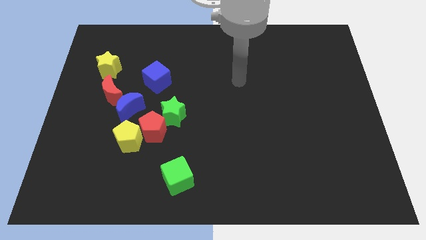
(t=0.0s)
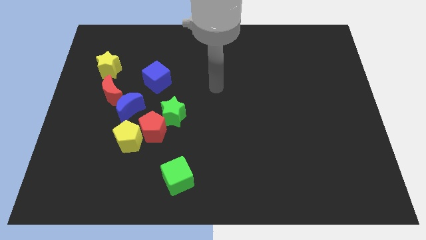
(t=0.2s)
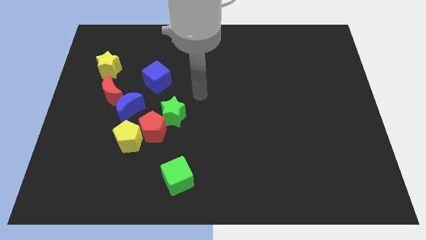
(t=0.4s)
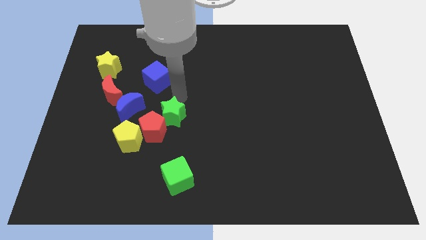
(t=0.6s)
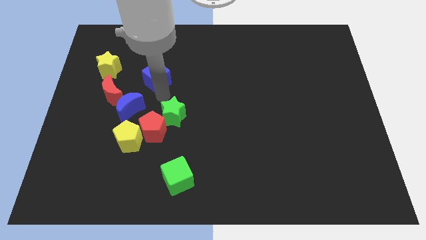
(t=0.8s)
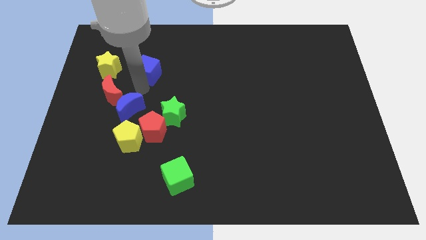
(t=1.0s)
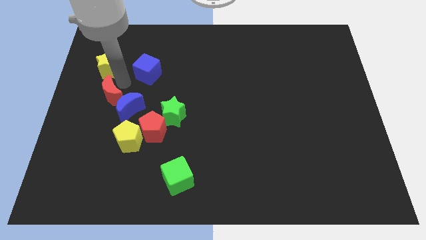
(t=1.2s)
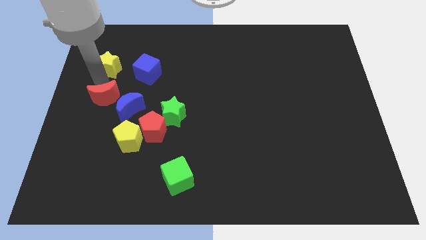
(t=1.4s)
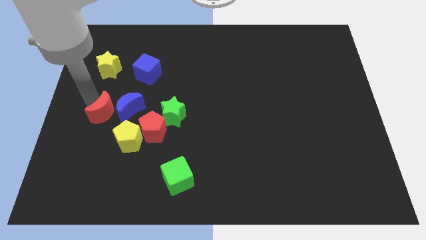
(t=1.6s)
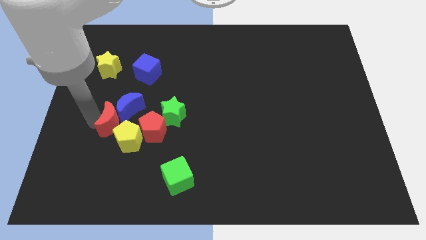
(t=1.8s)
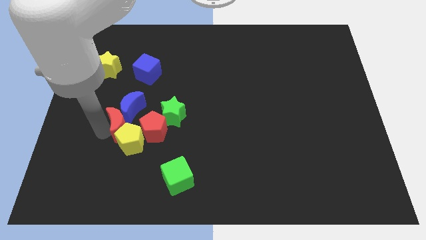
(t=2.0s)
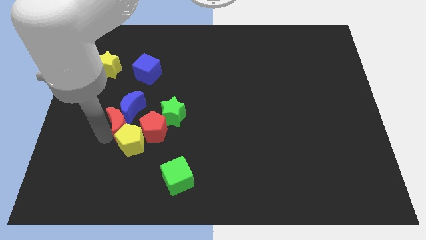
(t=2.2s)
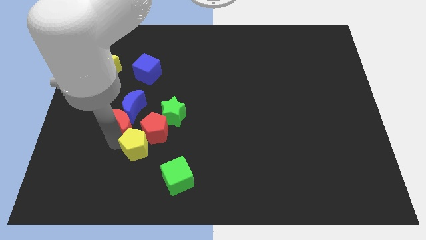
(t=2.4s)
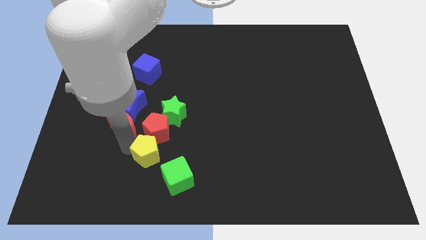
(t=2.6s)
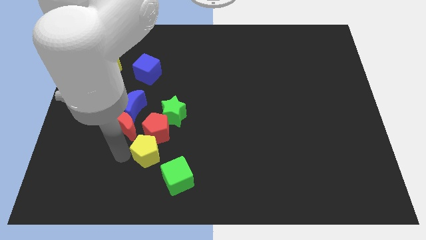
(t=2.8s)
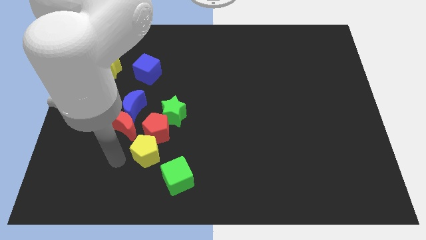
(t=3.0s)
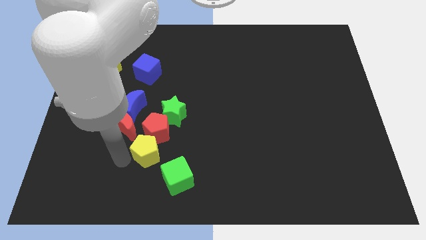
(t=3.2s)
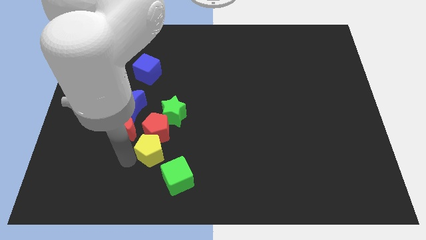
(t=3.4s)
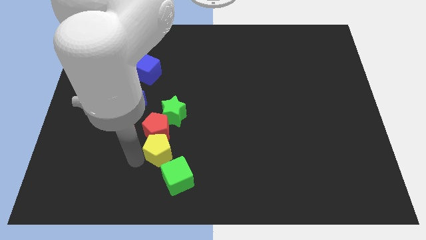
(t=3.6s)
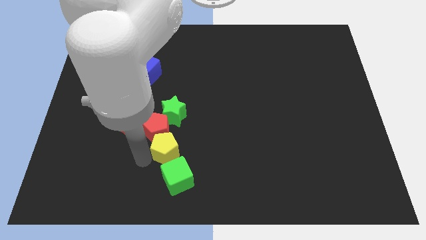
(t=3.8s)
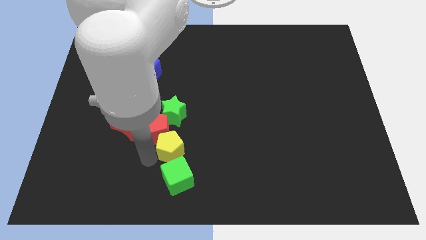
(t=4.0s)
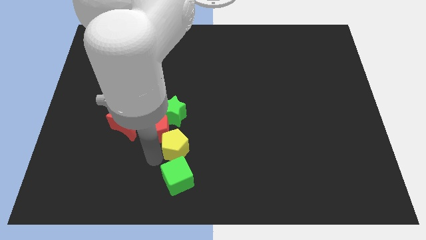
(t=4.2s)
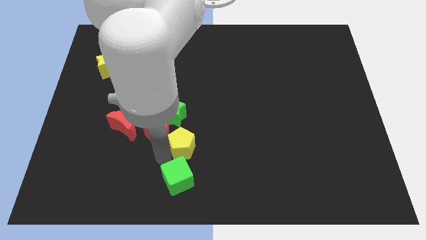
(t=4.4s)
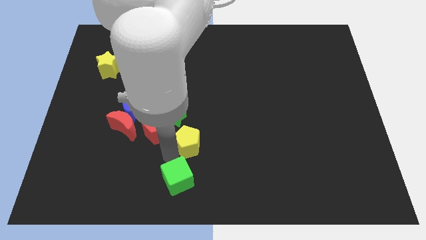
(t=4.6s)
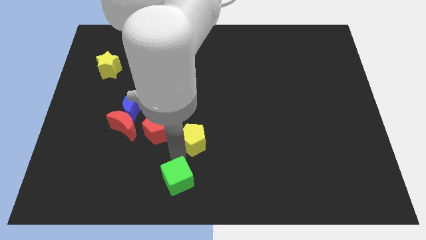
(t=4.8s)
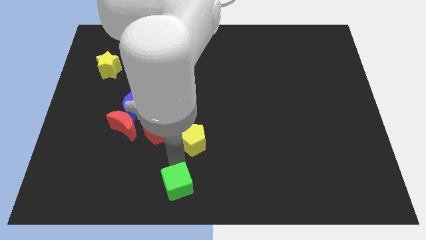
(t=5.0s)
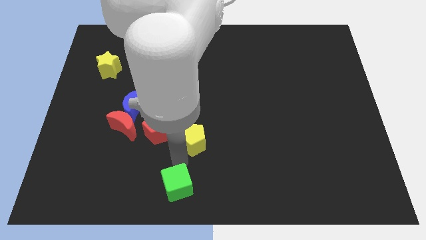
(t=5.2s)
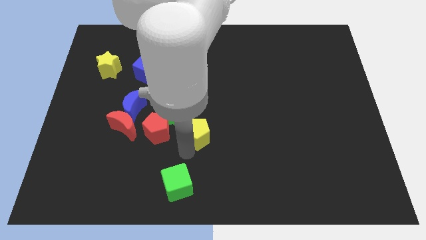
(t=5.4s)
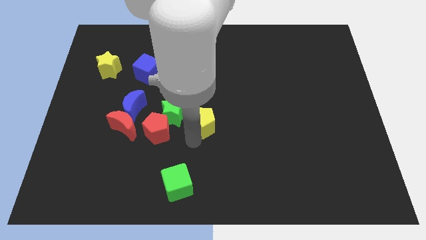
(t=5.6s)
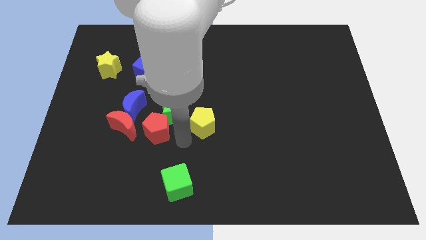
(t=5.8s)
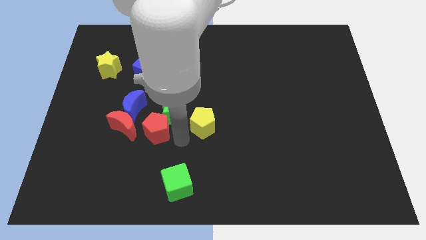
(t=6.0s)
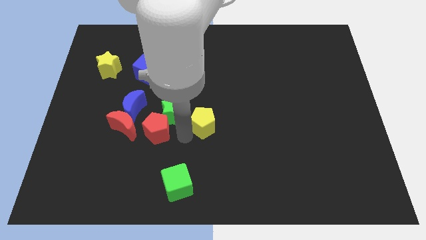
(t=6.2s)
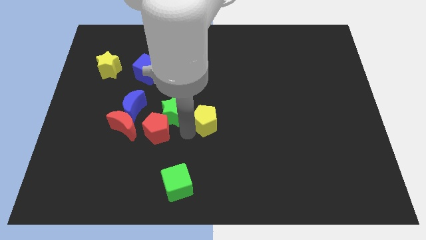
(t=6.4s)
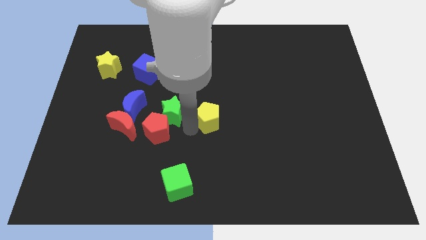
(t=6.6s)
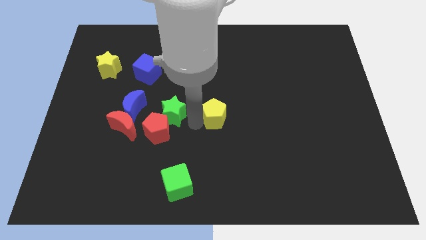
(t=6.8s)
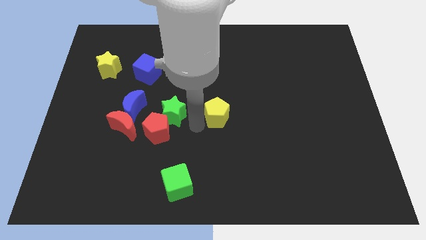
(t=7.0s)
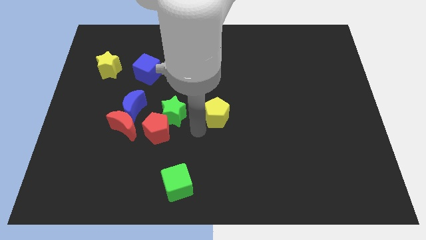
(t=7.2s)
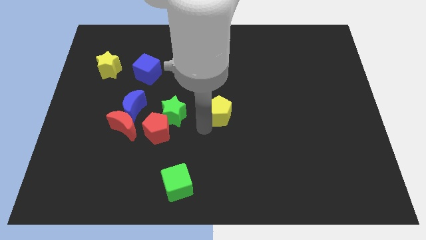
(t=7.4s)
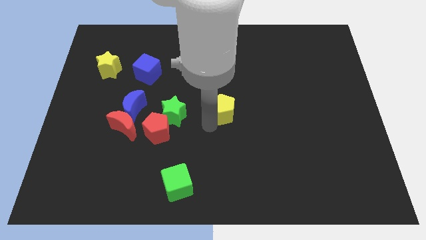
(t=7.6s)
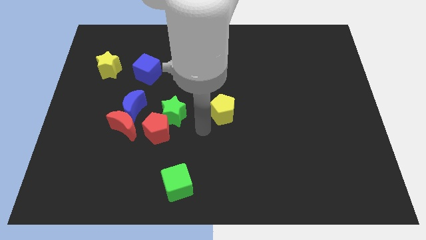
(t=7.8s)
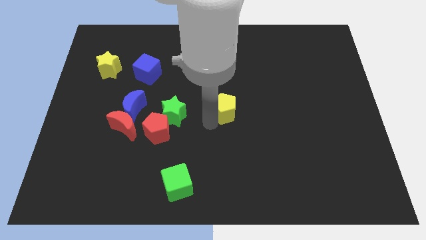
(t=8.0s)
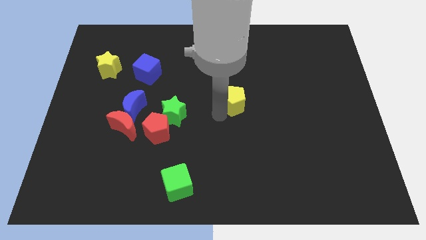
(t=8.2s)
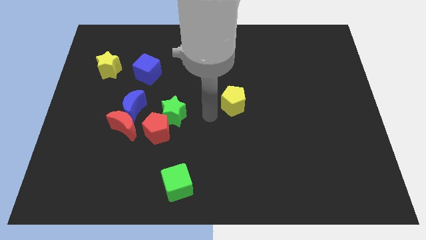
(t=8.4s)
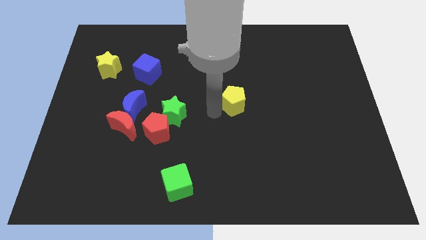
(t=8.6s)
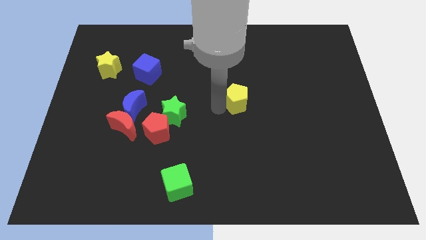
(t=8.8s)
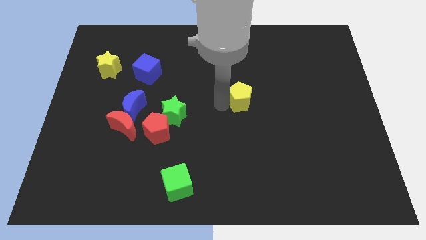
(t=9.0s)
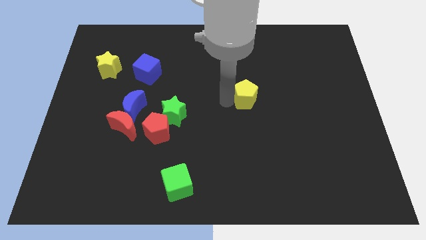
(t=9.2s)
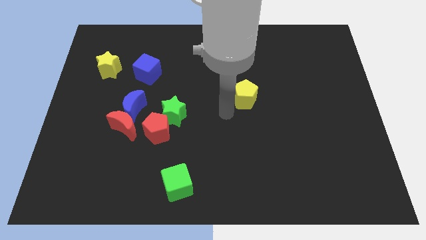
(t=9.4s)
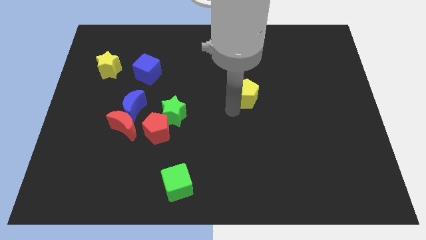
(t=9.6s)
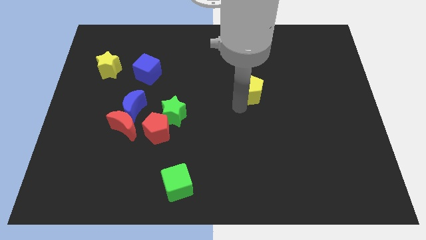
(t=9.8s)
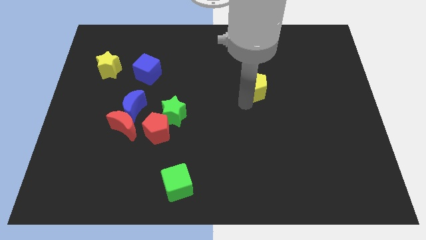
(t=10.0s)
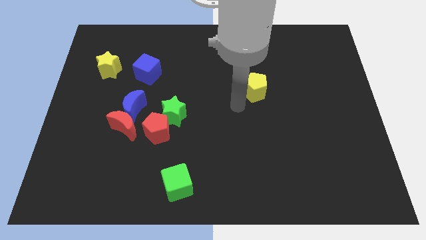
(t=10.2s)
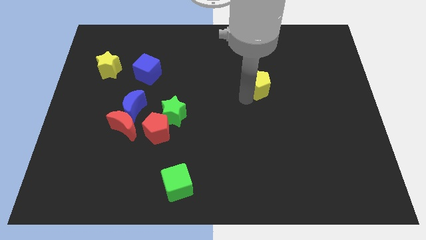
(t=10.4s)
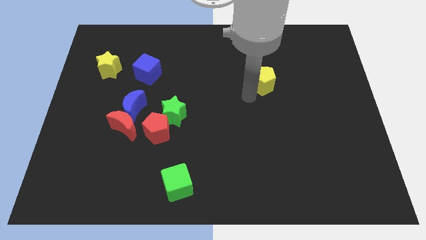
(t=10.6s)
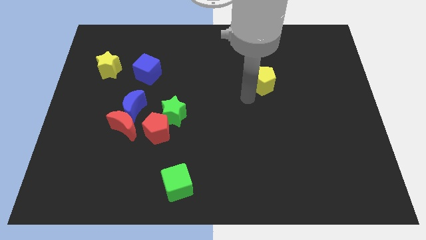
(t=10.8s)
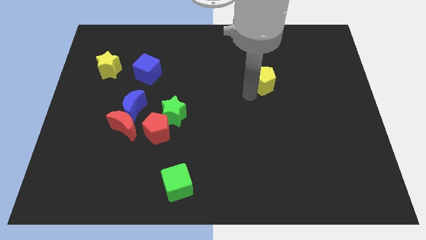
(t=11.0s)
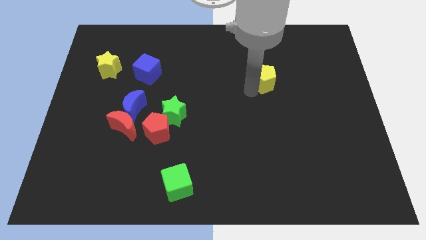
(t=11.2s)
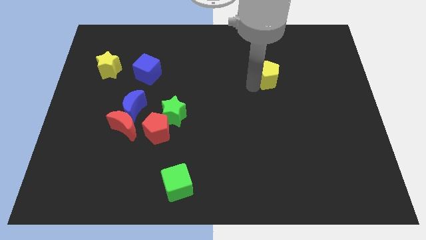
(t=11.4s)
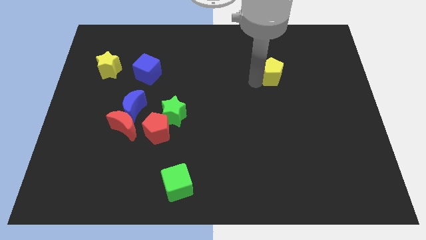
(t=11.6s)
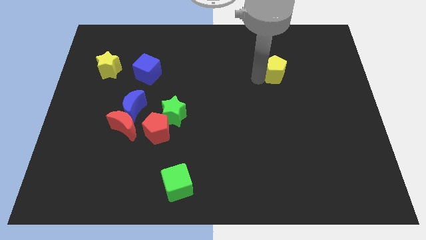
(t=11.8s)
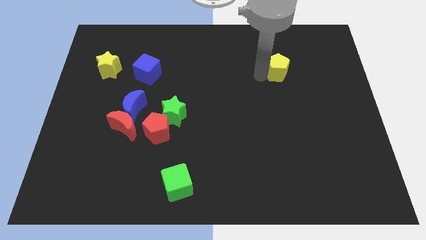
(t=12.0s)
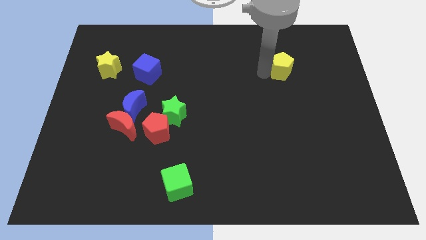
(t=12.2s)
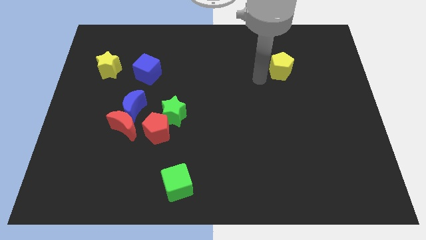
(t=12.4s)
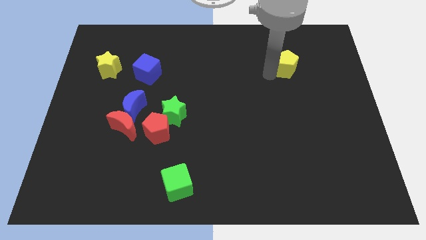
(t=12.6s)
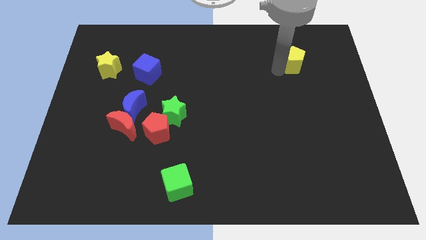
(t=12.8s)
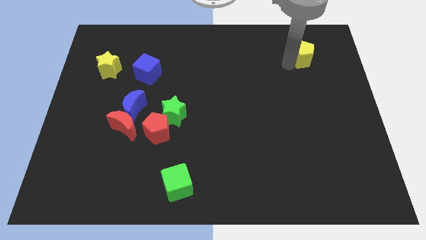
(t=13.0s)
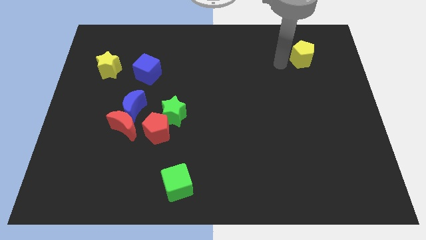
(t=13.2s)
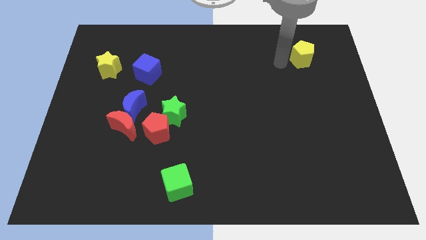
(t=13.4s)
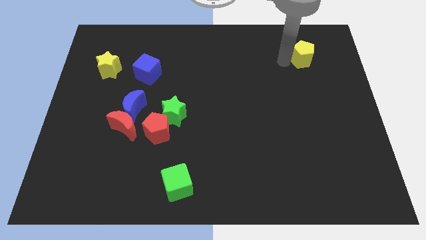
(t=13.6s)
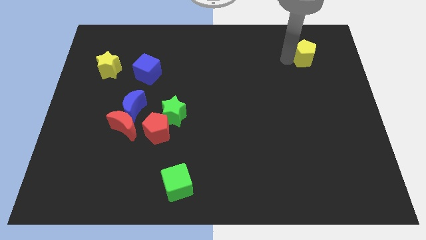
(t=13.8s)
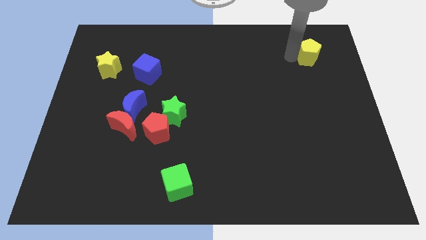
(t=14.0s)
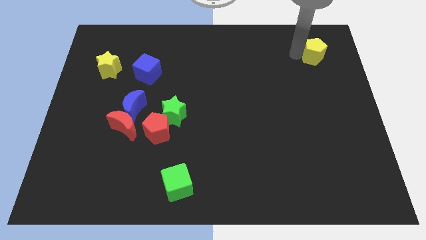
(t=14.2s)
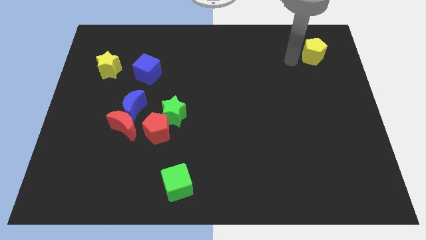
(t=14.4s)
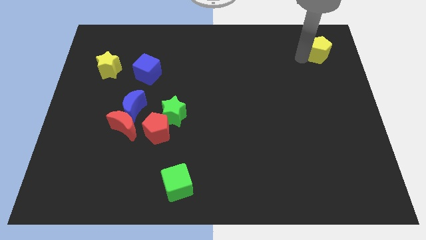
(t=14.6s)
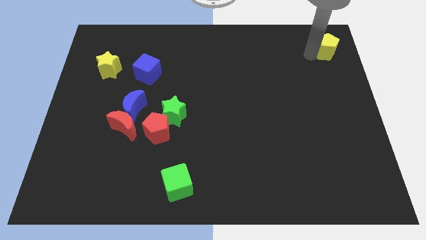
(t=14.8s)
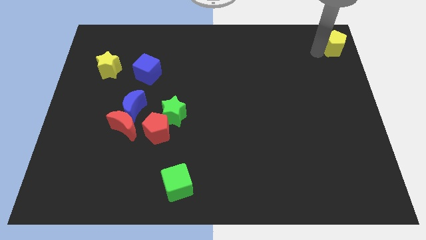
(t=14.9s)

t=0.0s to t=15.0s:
move the yellow pentagon to the top right of the board
